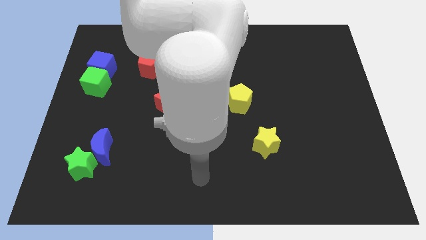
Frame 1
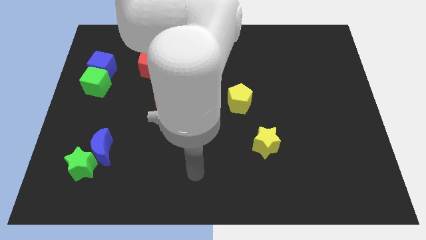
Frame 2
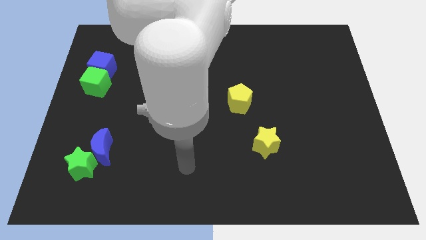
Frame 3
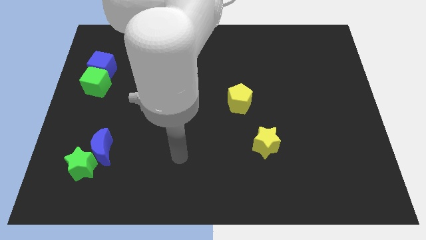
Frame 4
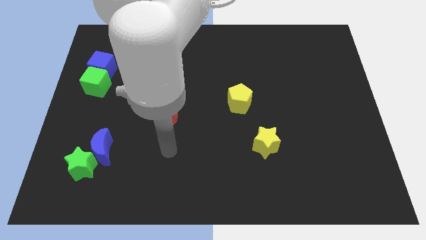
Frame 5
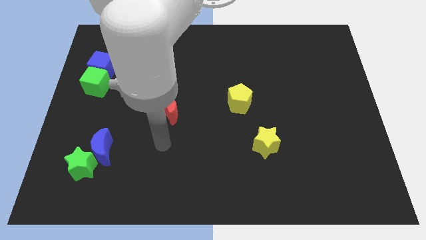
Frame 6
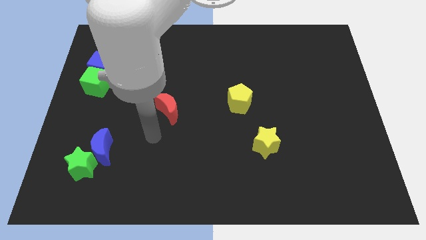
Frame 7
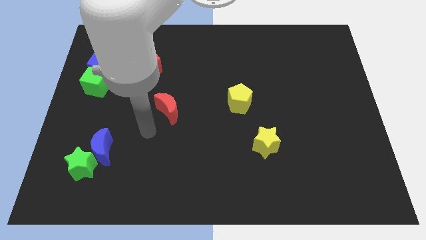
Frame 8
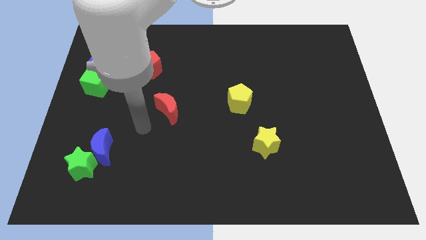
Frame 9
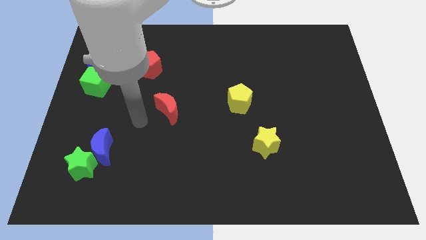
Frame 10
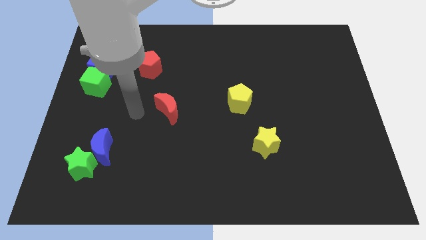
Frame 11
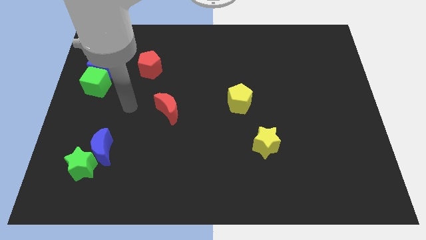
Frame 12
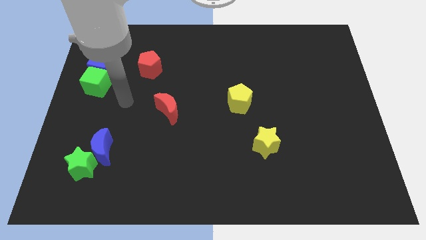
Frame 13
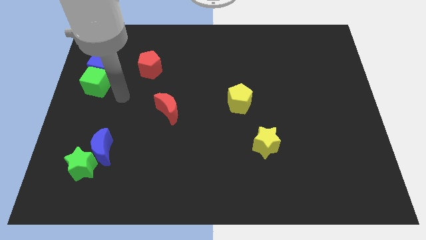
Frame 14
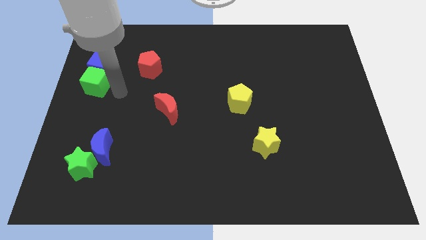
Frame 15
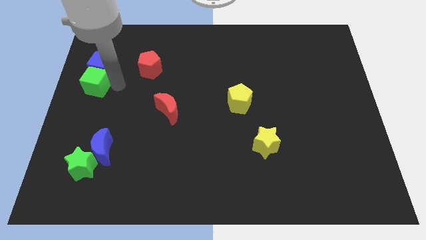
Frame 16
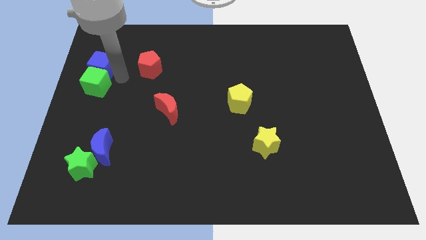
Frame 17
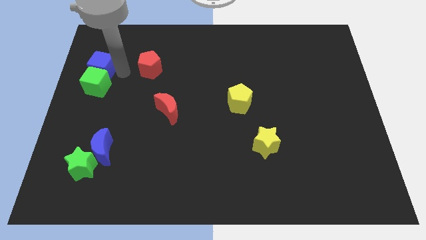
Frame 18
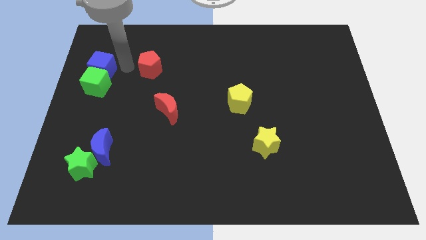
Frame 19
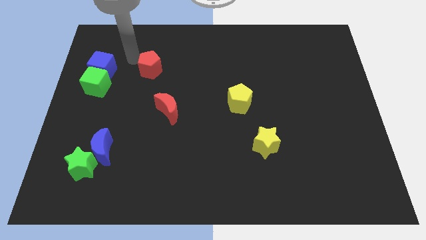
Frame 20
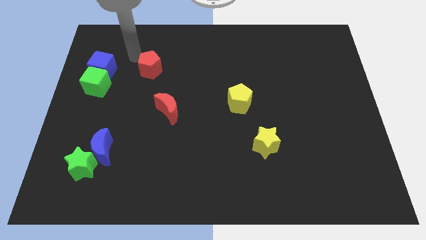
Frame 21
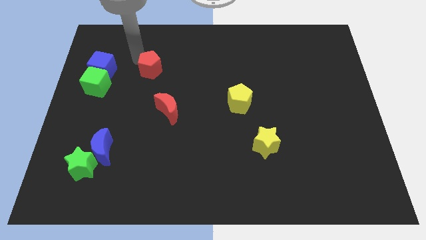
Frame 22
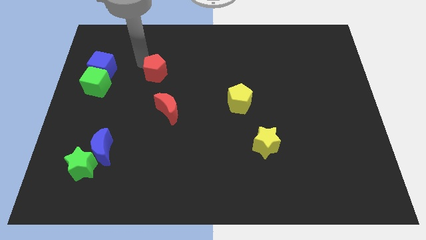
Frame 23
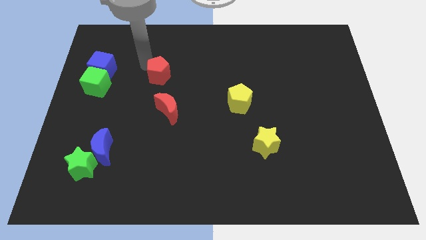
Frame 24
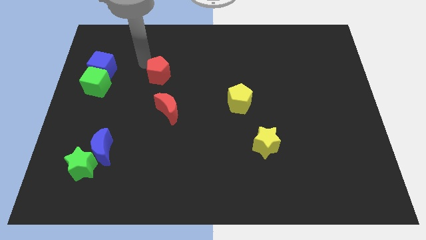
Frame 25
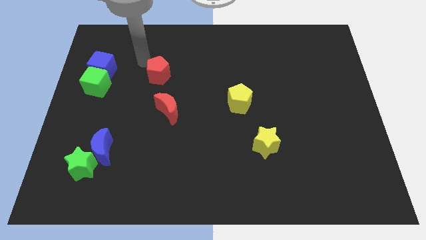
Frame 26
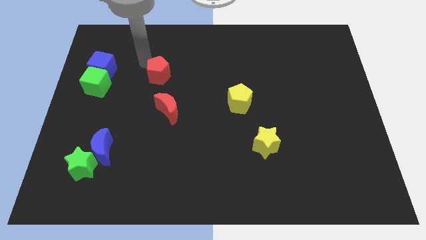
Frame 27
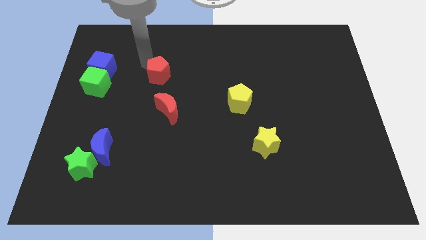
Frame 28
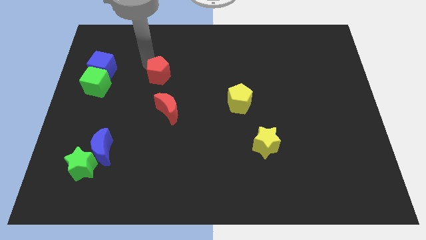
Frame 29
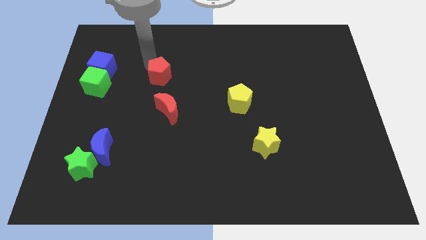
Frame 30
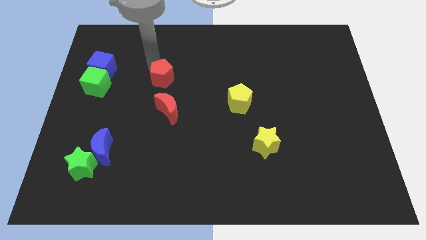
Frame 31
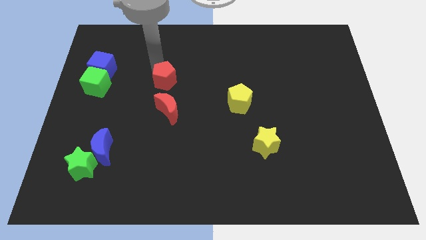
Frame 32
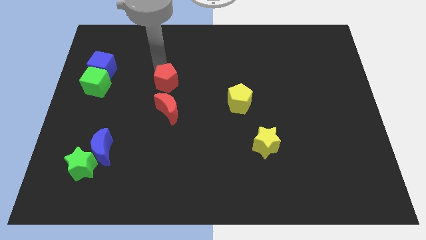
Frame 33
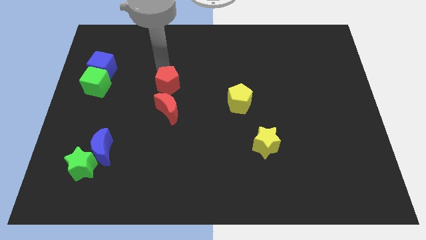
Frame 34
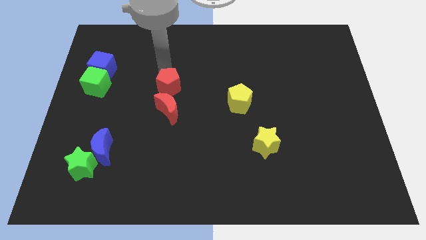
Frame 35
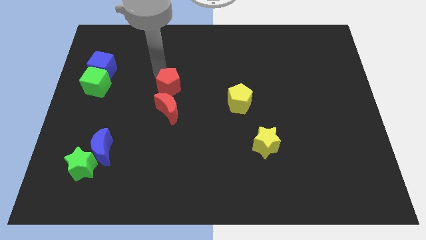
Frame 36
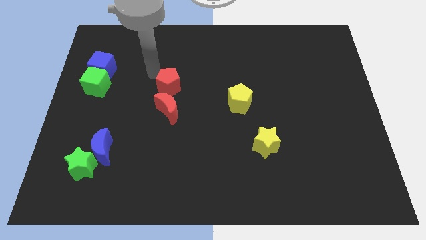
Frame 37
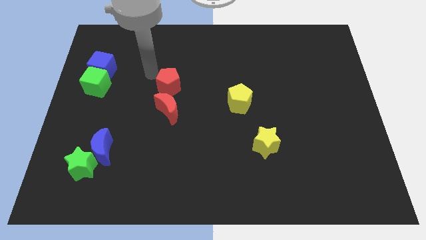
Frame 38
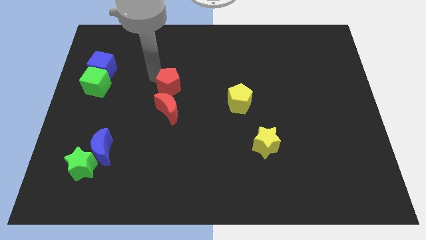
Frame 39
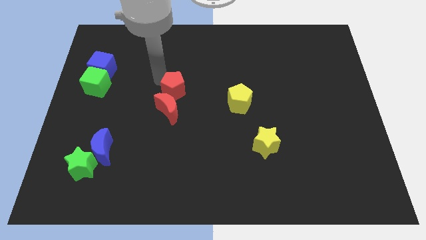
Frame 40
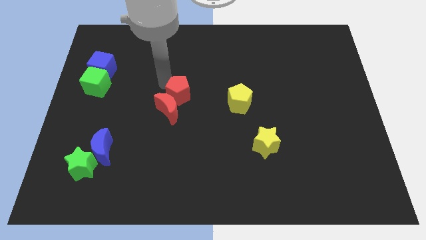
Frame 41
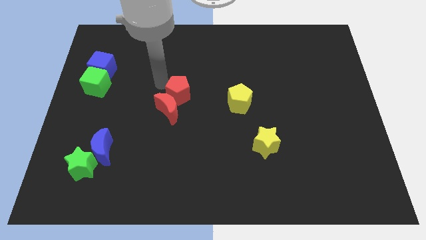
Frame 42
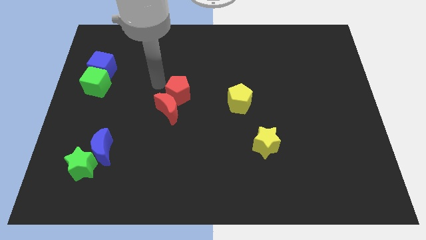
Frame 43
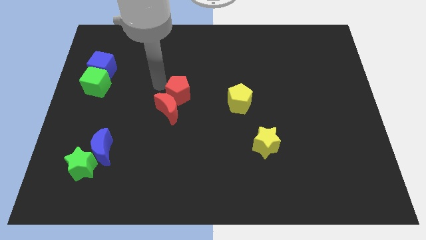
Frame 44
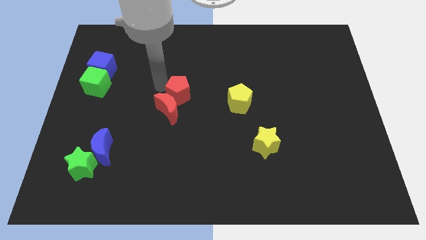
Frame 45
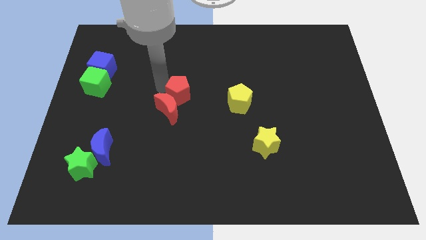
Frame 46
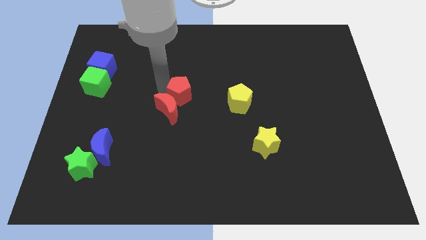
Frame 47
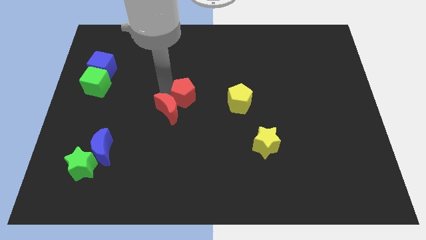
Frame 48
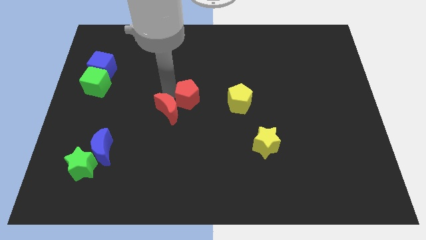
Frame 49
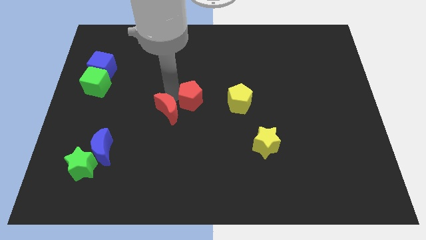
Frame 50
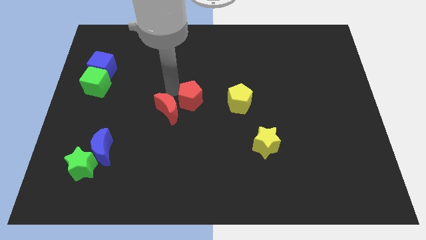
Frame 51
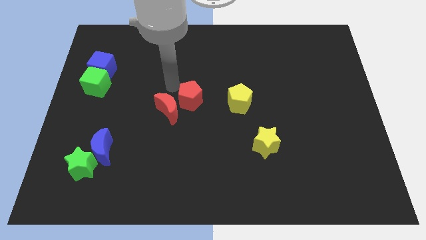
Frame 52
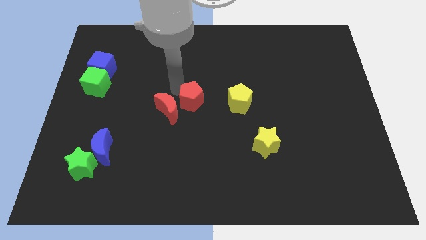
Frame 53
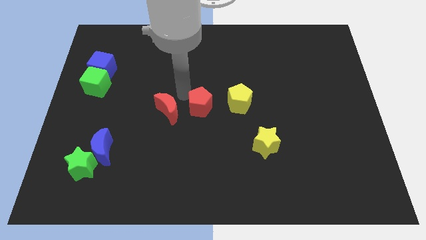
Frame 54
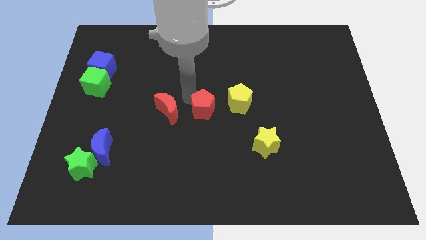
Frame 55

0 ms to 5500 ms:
push the red pentagon to the bottom left side of the yellow pentagon

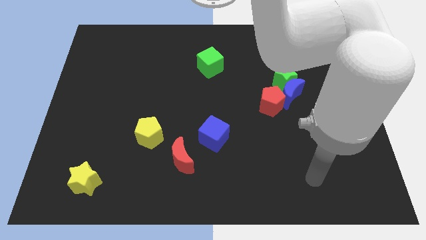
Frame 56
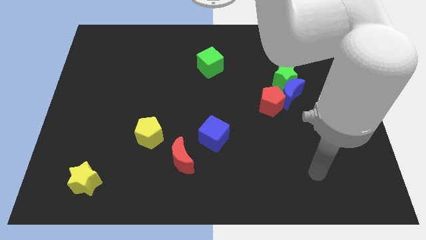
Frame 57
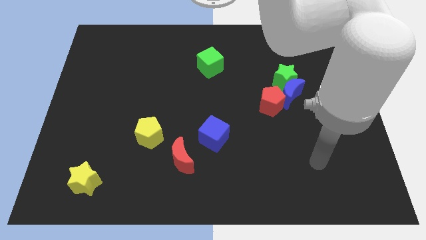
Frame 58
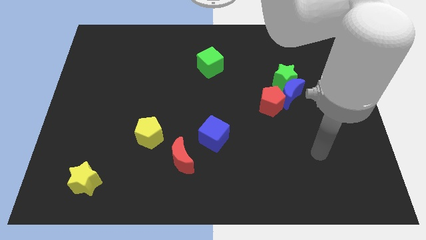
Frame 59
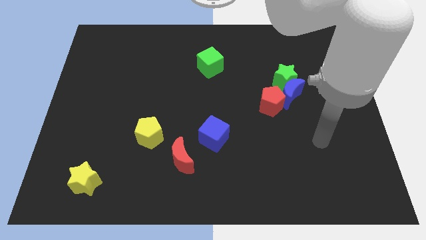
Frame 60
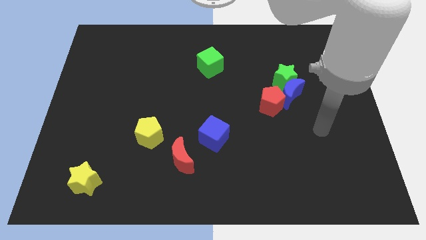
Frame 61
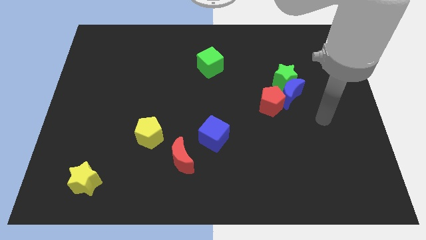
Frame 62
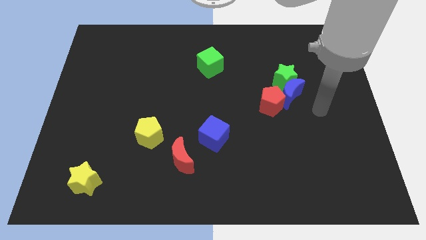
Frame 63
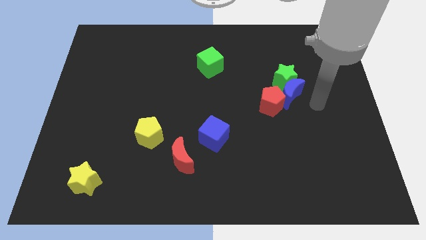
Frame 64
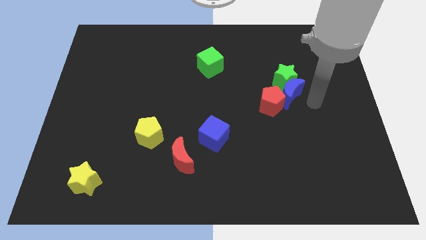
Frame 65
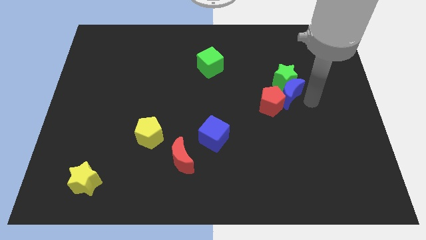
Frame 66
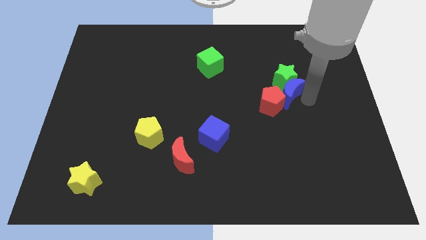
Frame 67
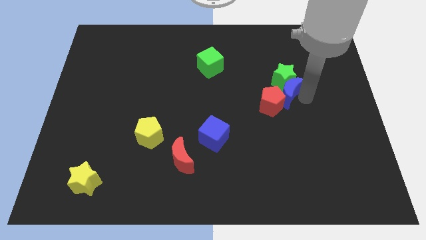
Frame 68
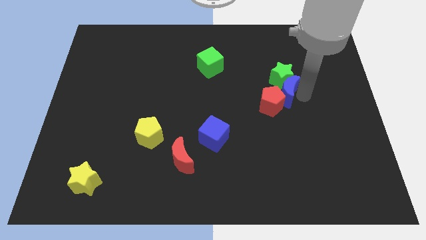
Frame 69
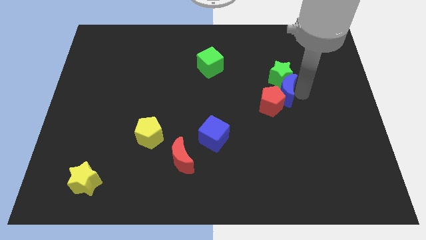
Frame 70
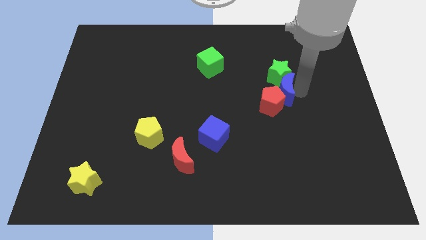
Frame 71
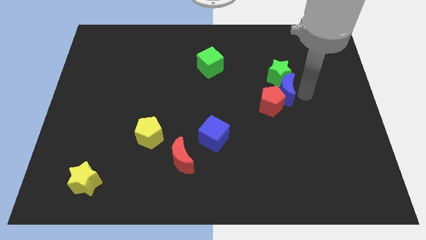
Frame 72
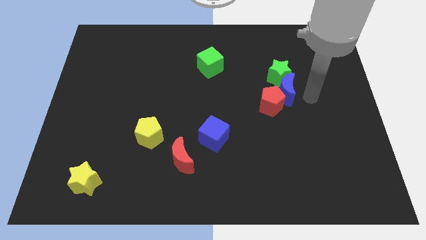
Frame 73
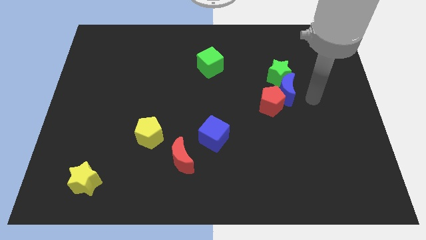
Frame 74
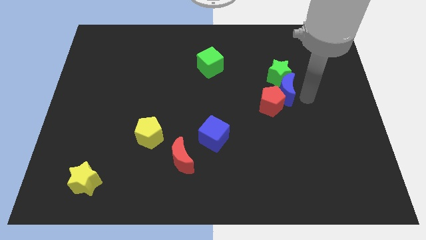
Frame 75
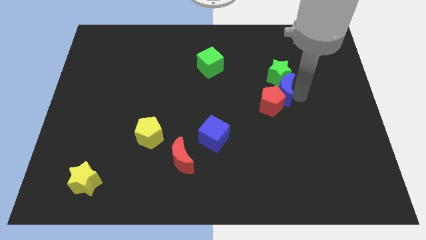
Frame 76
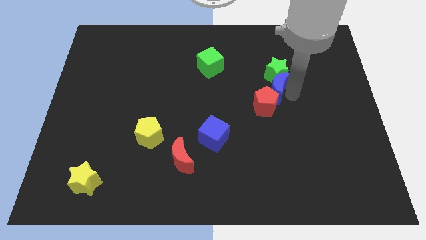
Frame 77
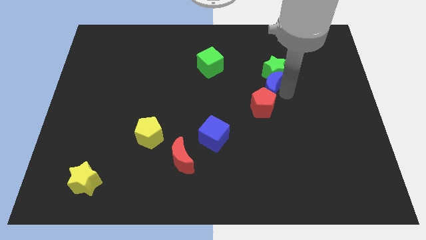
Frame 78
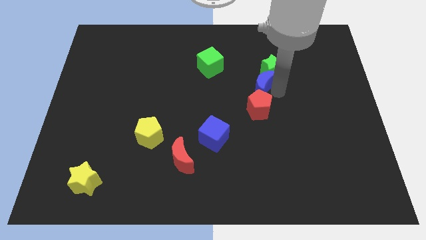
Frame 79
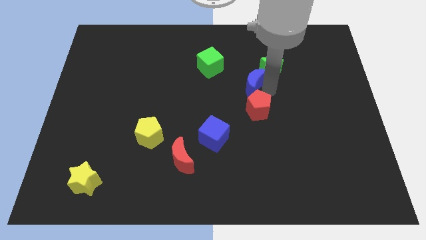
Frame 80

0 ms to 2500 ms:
put the blue moon to the left side of the green star
